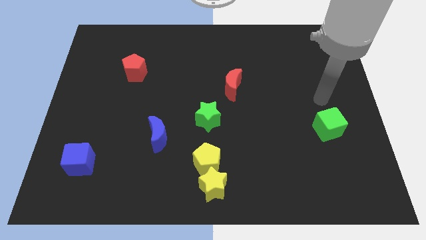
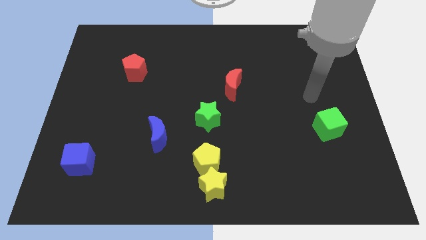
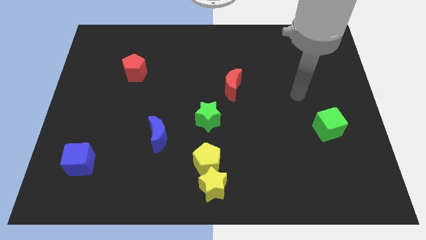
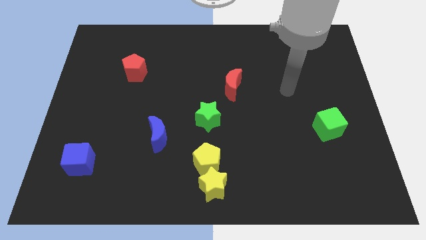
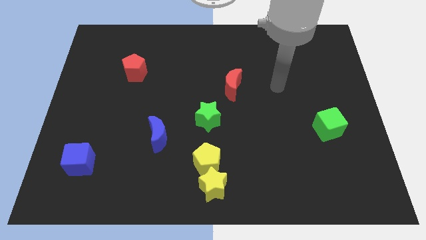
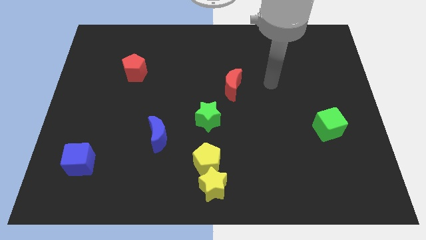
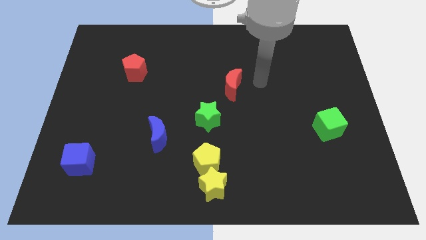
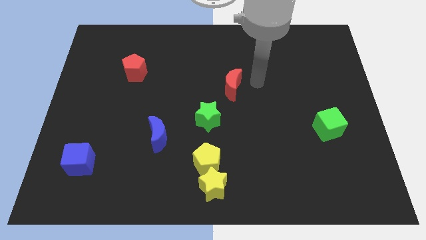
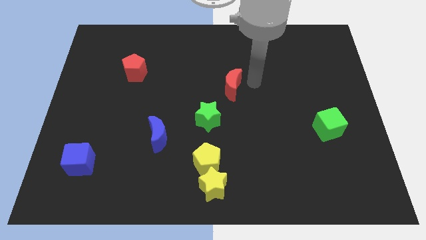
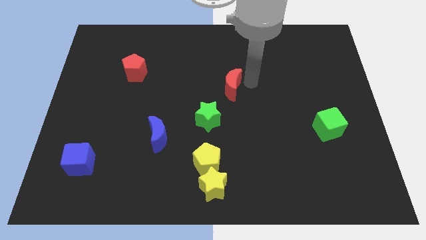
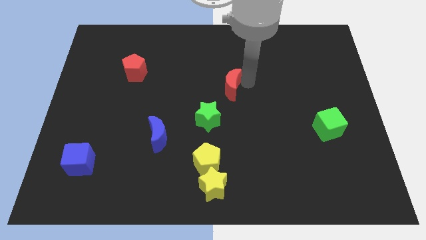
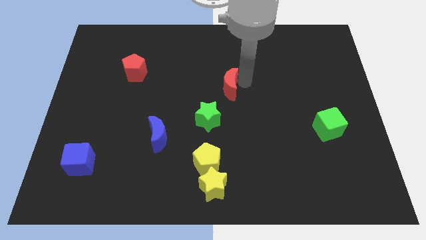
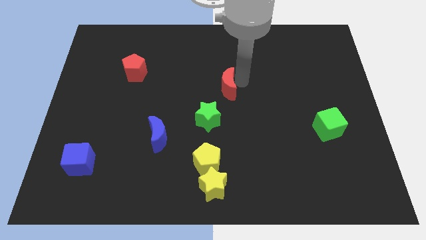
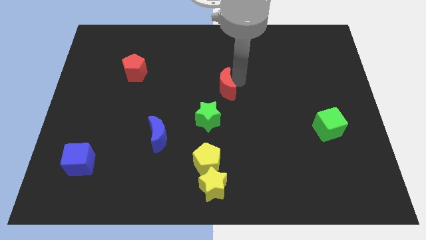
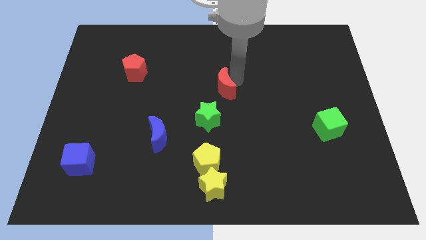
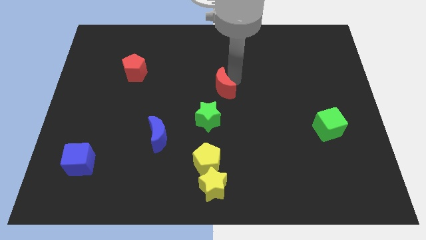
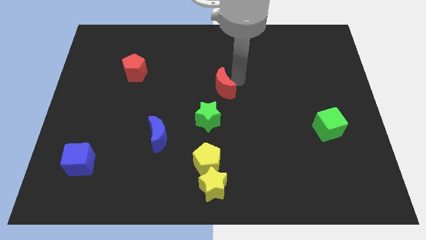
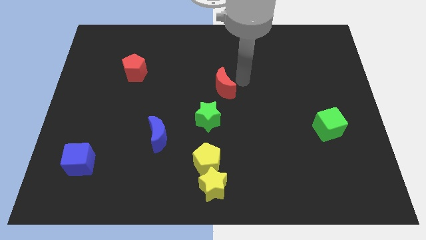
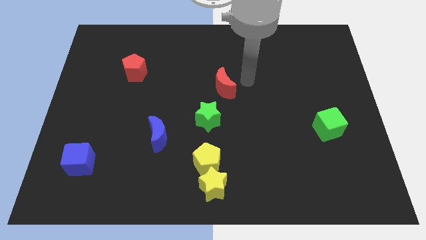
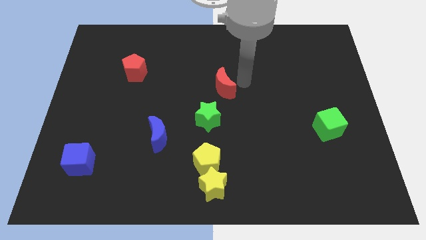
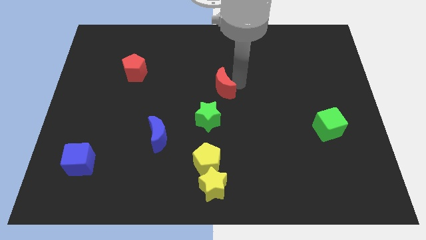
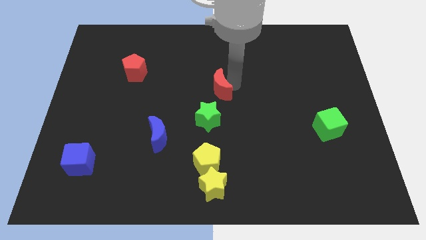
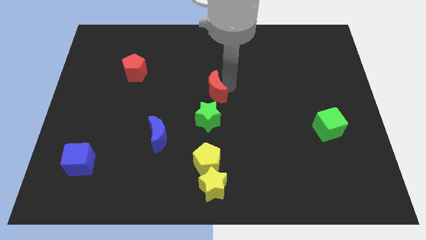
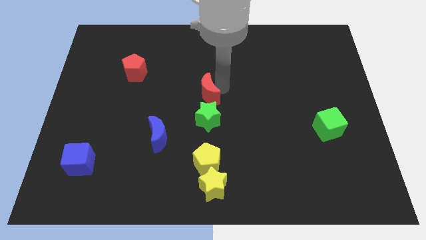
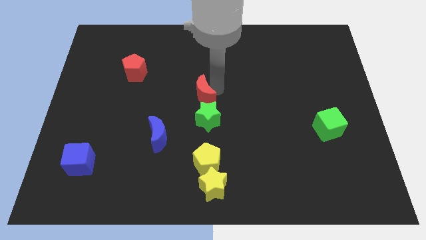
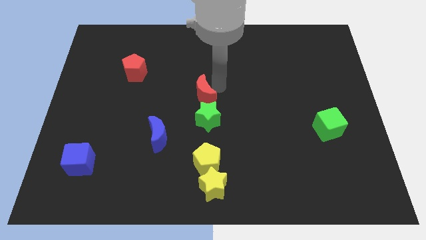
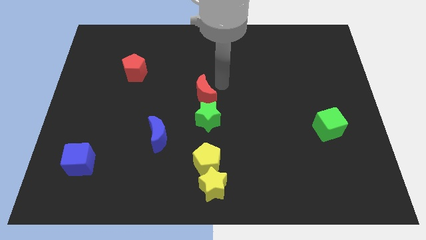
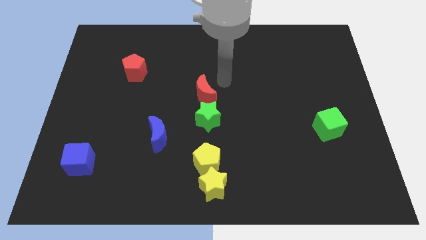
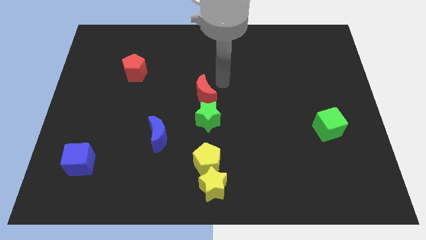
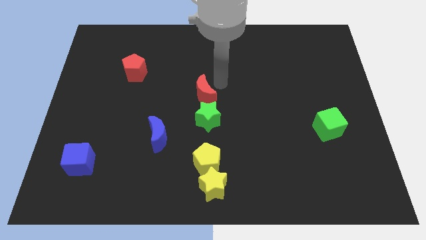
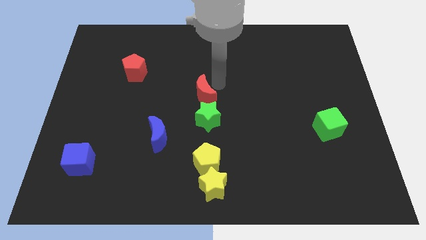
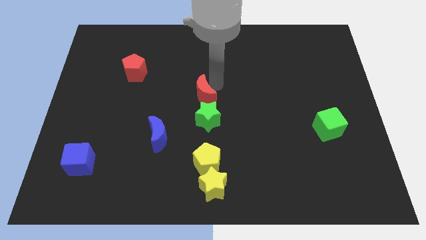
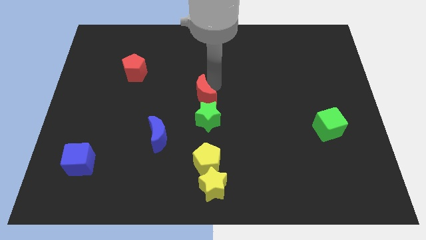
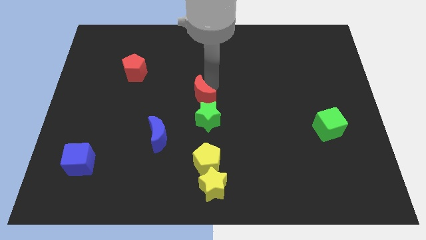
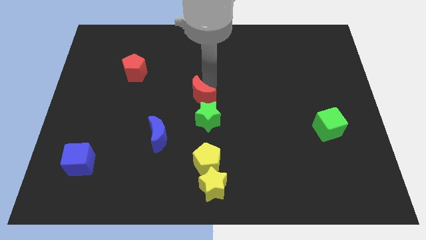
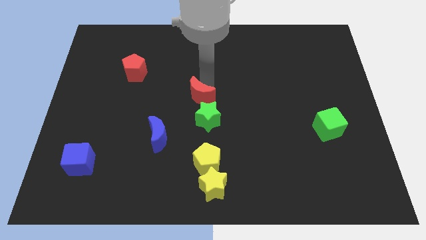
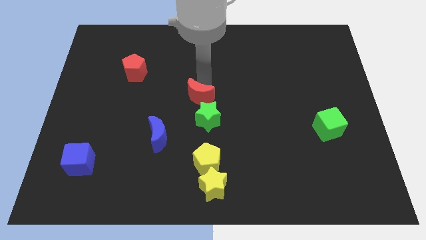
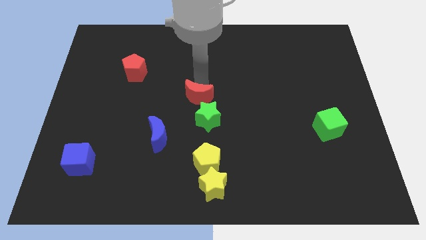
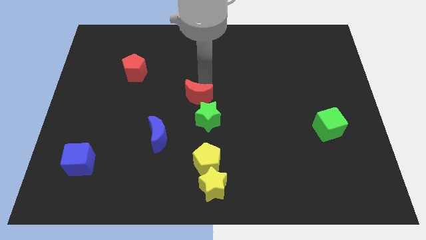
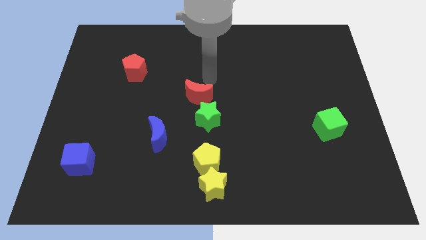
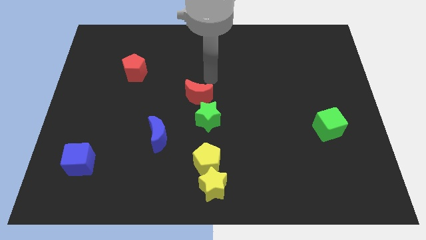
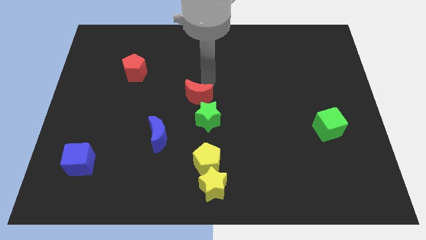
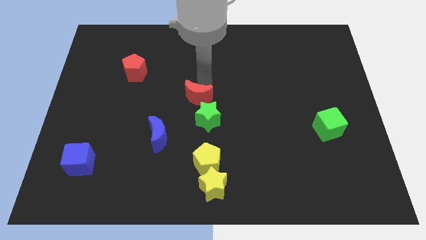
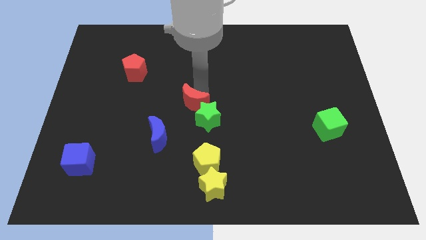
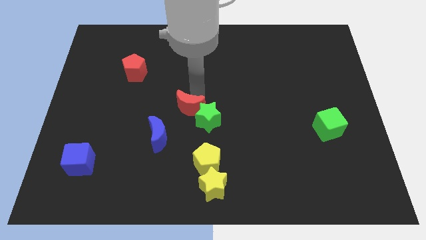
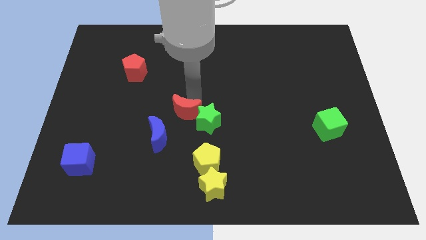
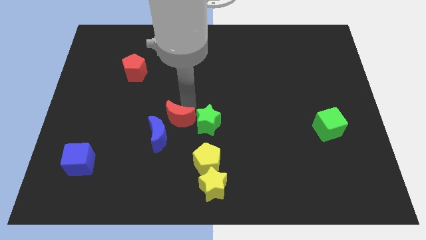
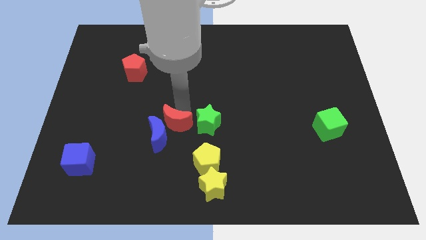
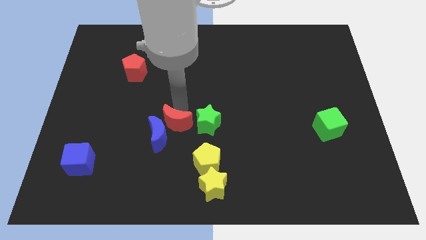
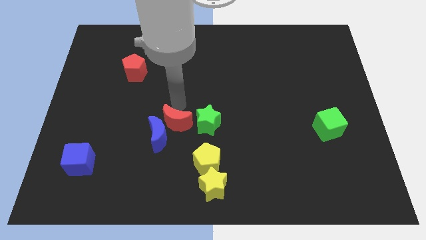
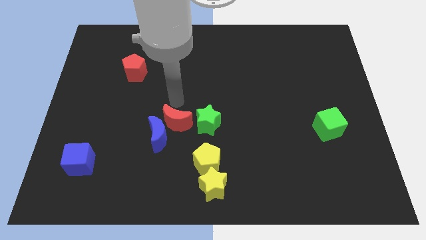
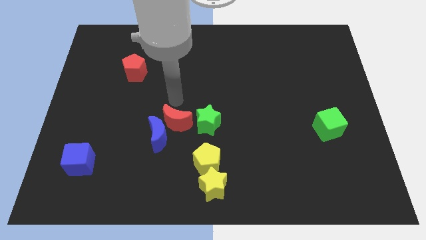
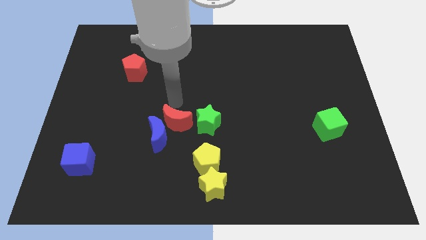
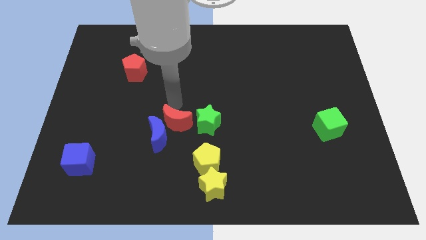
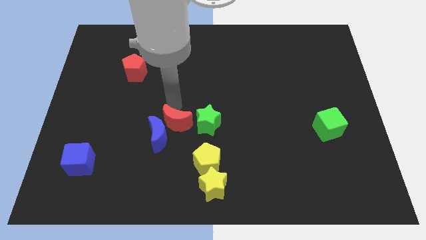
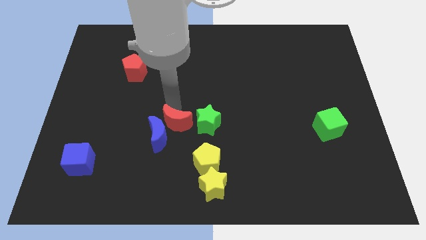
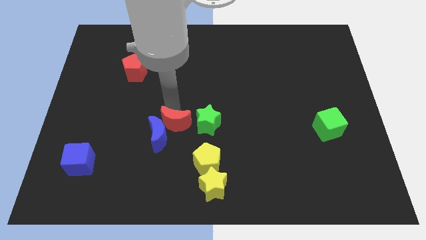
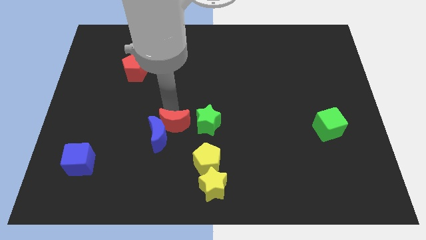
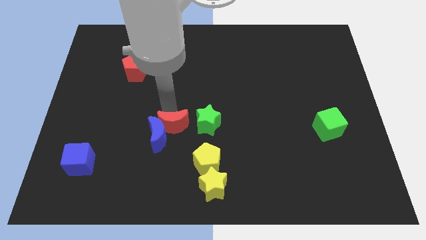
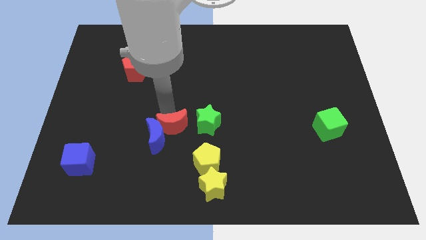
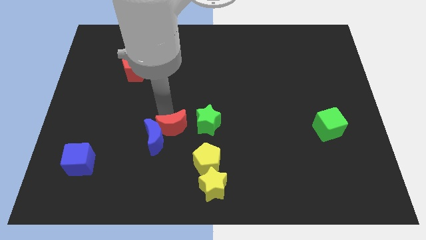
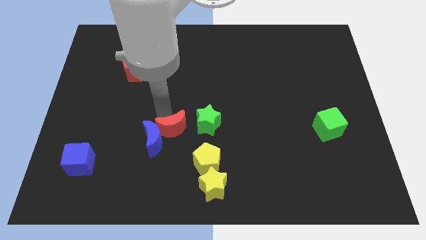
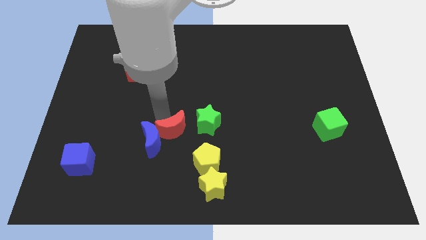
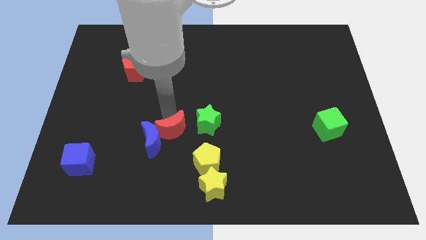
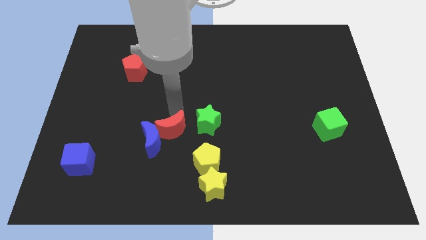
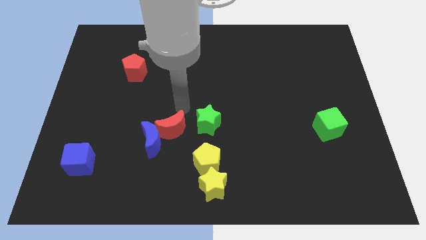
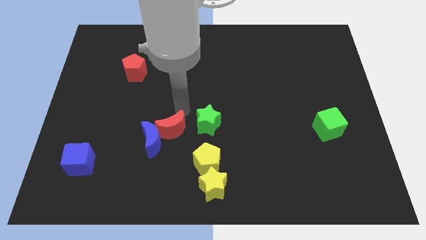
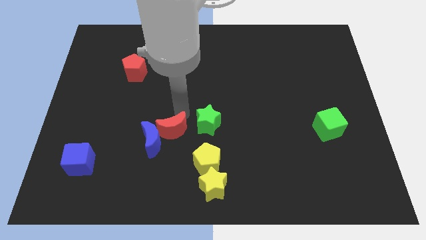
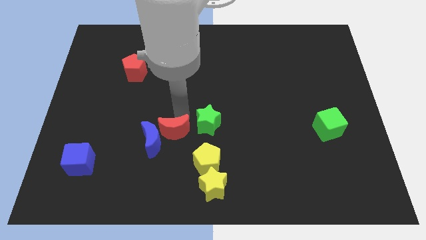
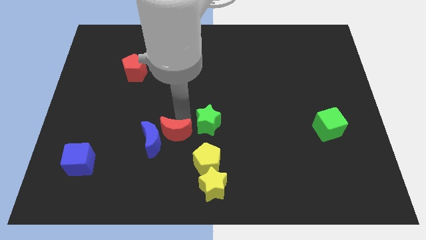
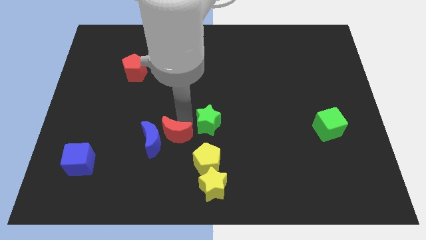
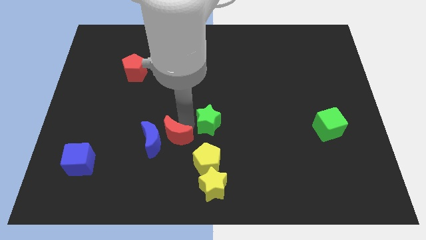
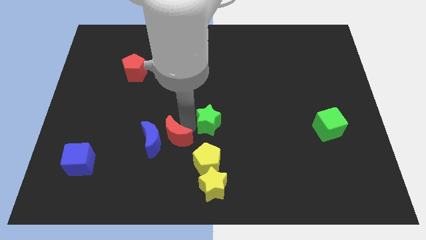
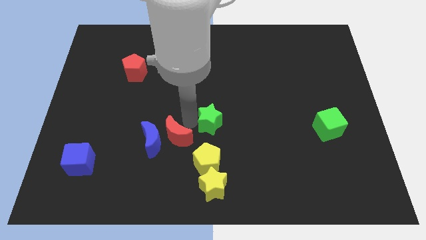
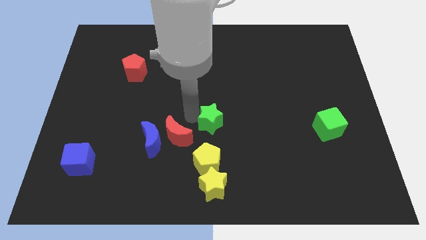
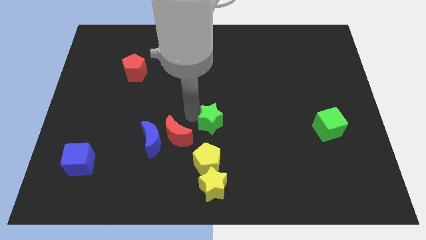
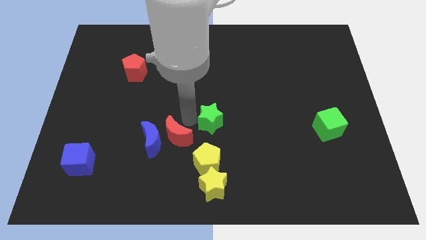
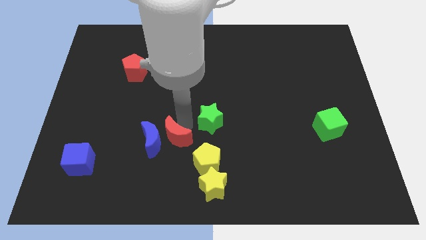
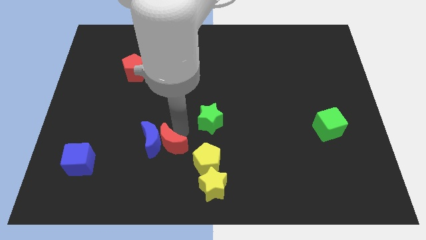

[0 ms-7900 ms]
put the red moon just left of the yellow pentagon

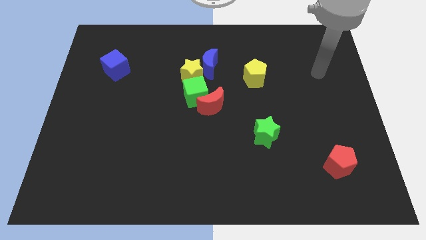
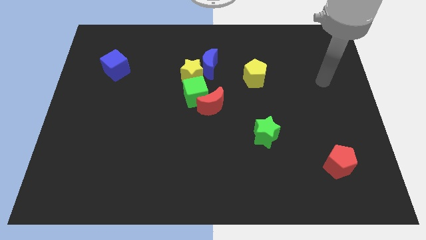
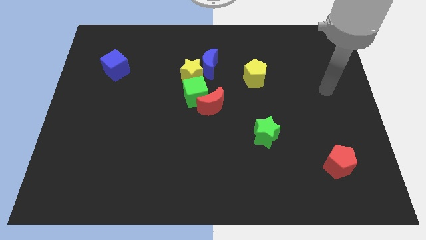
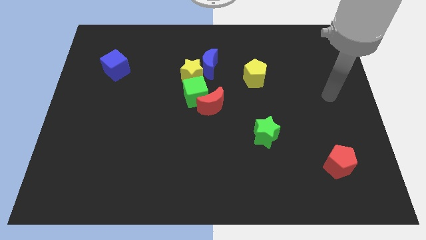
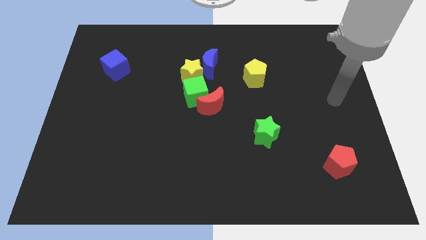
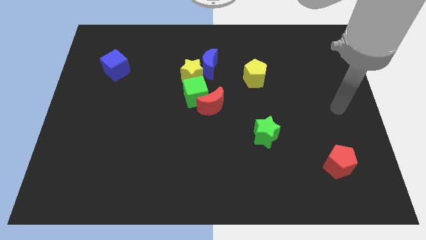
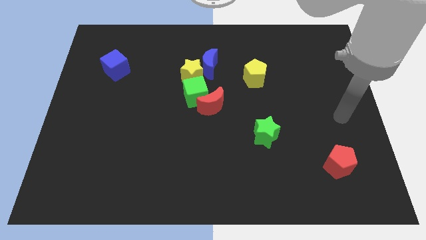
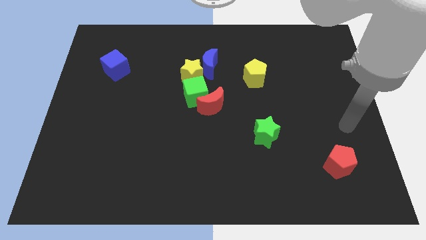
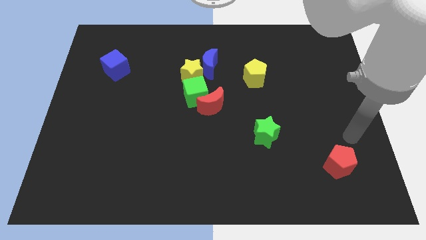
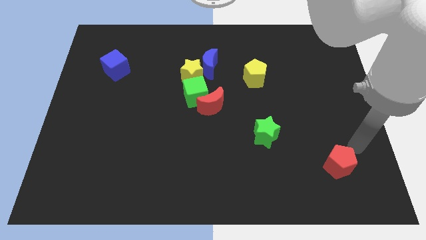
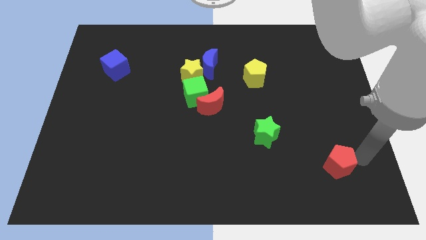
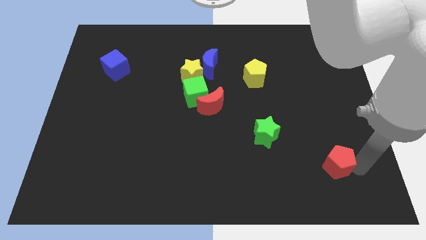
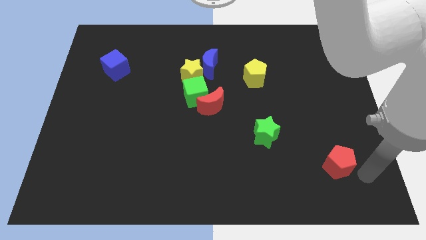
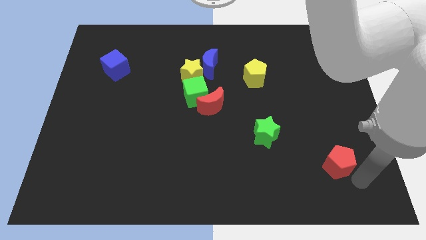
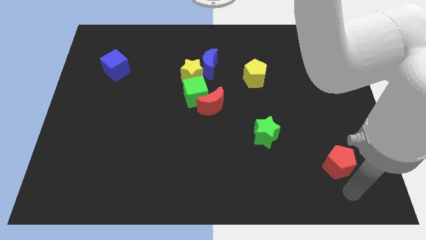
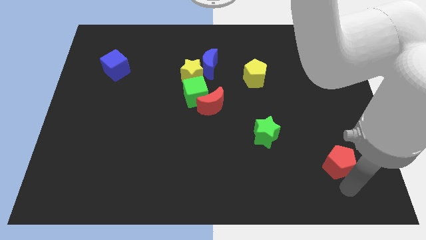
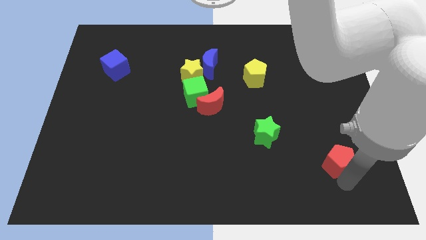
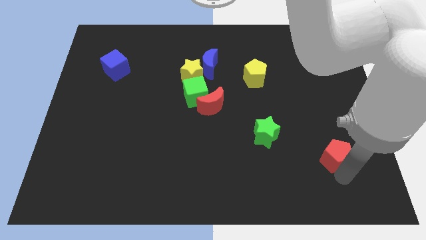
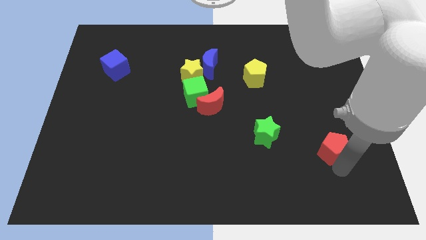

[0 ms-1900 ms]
move the red pentagon right of the green star
